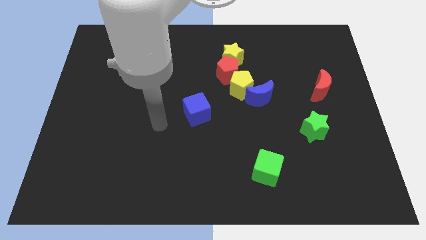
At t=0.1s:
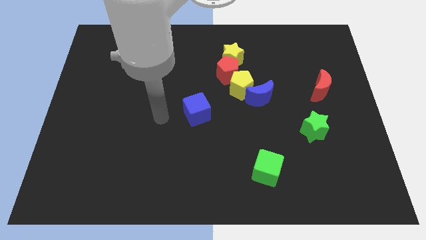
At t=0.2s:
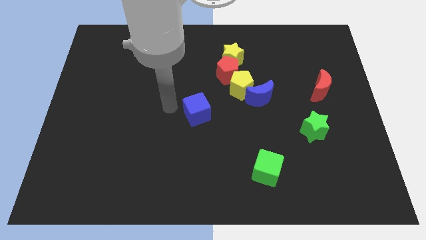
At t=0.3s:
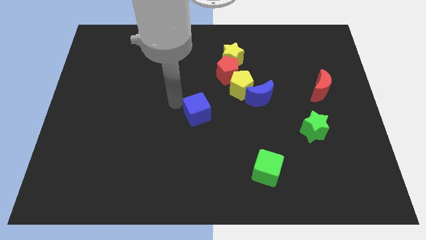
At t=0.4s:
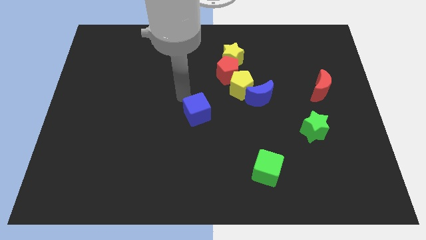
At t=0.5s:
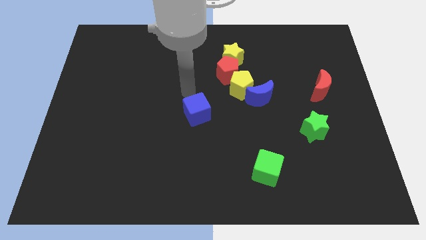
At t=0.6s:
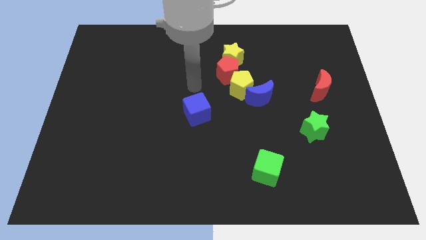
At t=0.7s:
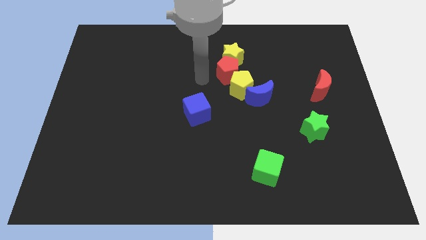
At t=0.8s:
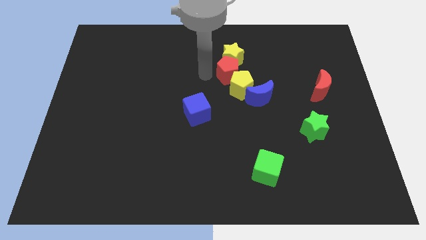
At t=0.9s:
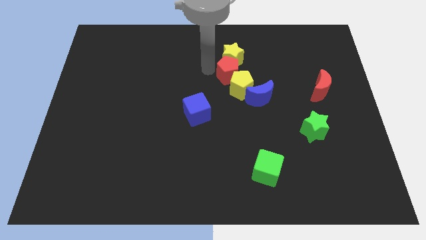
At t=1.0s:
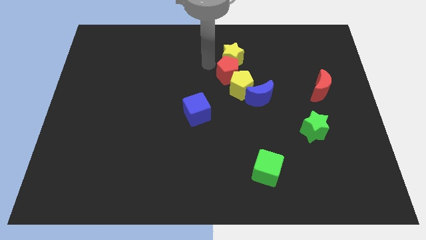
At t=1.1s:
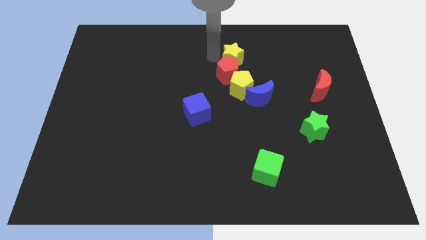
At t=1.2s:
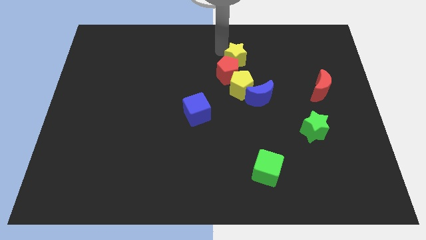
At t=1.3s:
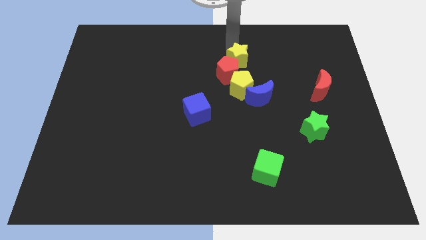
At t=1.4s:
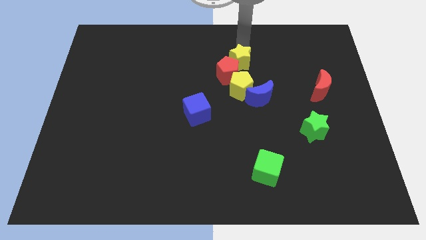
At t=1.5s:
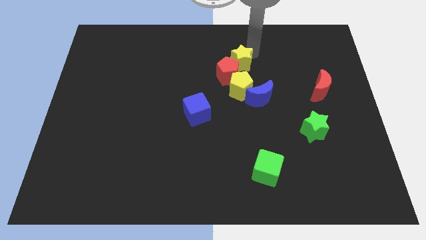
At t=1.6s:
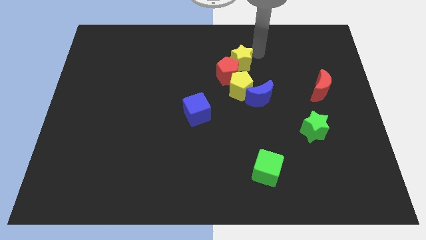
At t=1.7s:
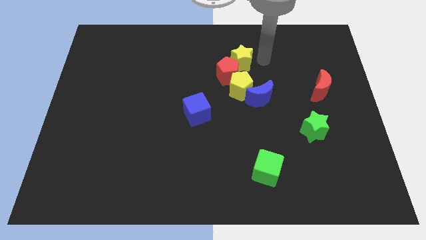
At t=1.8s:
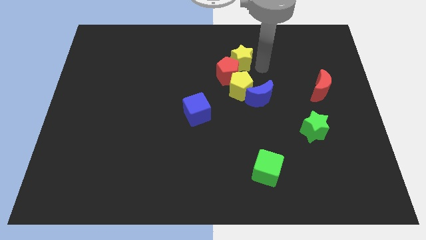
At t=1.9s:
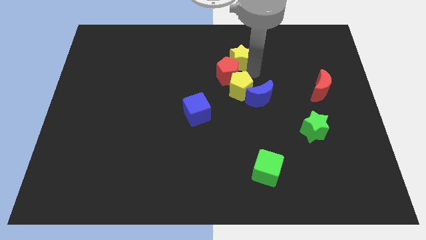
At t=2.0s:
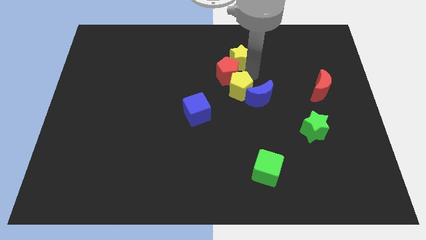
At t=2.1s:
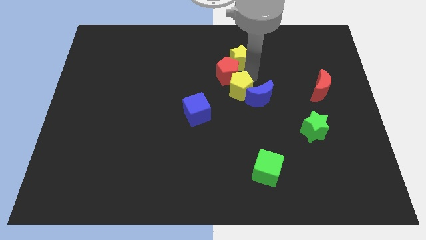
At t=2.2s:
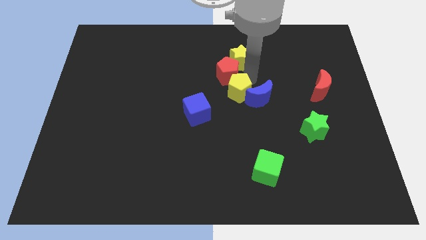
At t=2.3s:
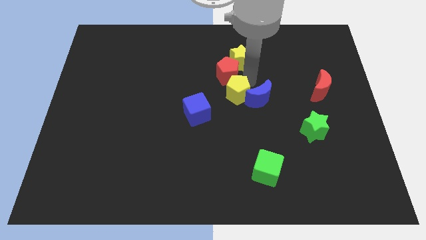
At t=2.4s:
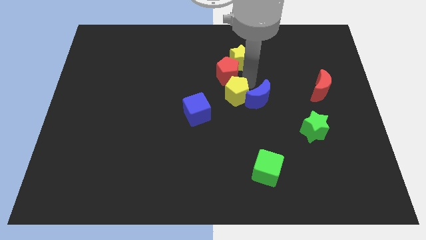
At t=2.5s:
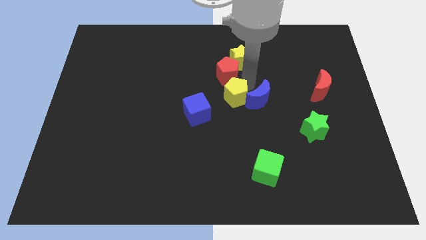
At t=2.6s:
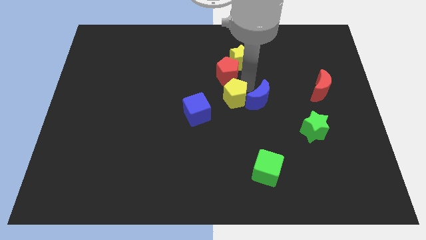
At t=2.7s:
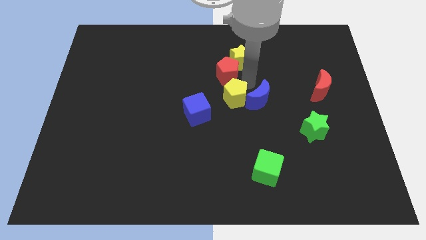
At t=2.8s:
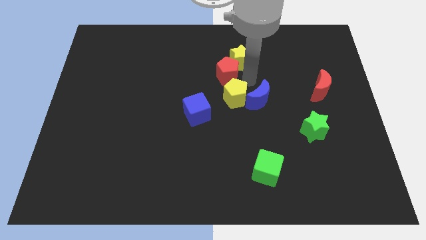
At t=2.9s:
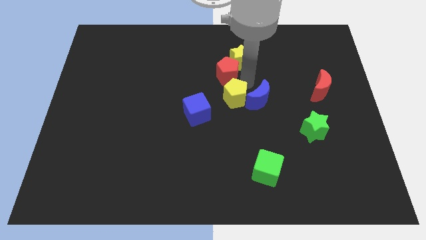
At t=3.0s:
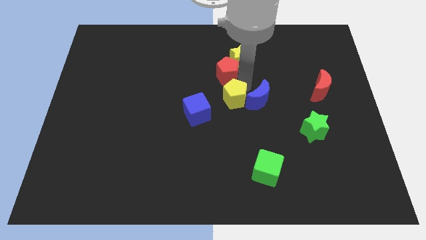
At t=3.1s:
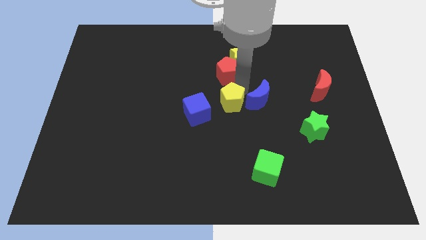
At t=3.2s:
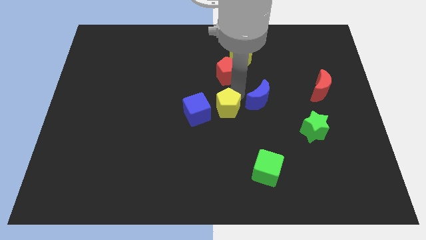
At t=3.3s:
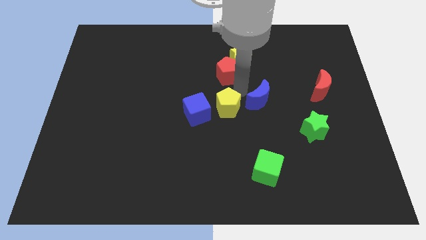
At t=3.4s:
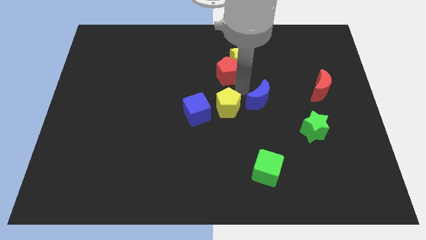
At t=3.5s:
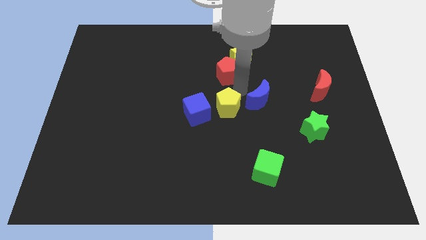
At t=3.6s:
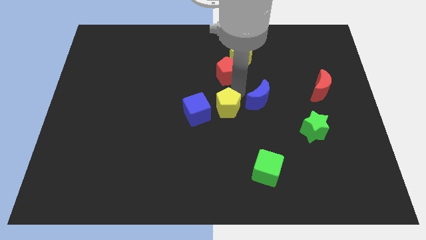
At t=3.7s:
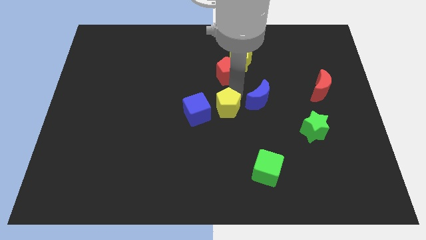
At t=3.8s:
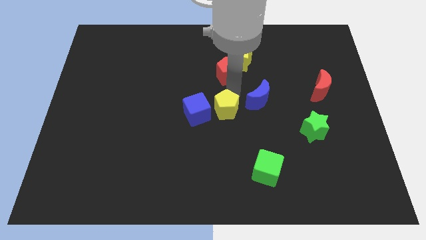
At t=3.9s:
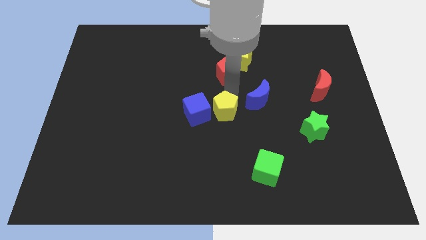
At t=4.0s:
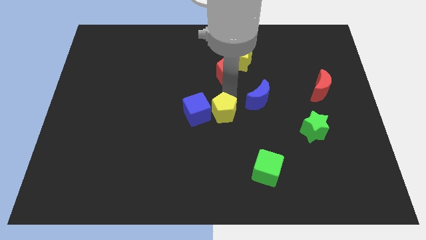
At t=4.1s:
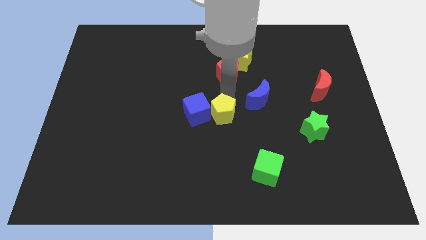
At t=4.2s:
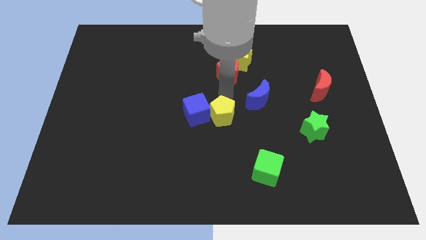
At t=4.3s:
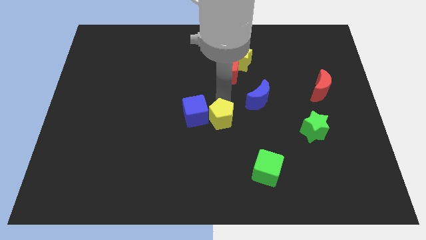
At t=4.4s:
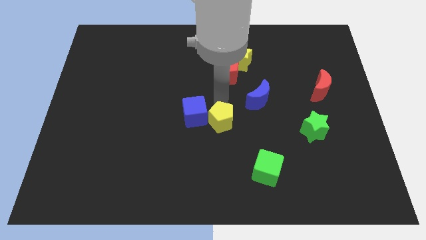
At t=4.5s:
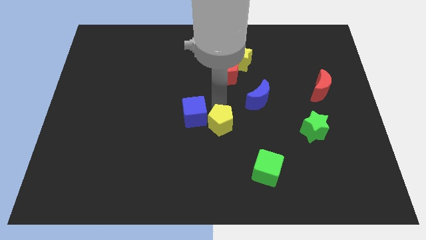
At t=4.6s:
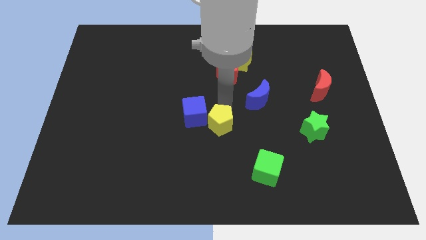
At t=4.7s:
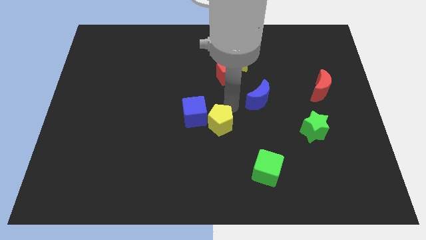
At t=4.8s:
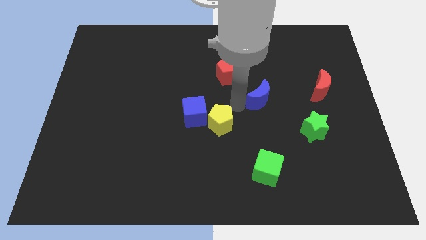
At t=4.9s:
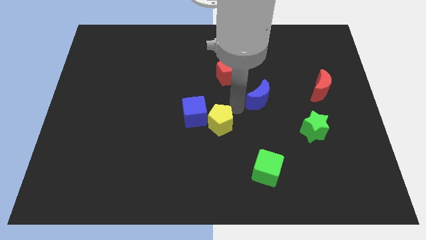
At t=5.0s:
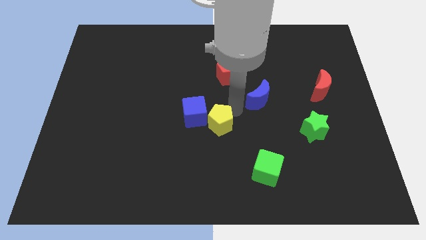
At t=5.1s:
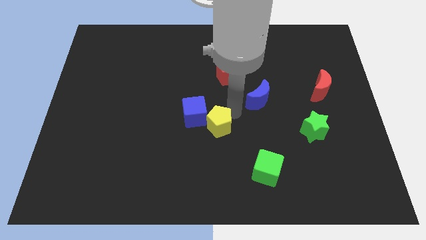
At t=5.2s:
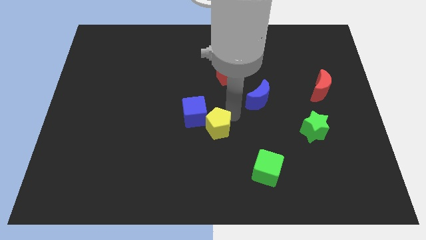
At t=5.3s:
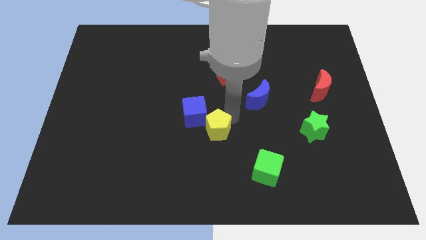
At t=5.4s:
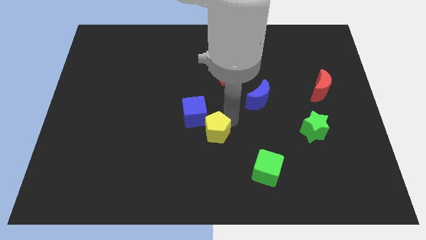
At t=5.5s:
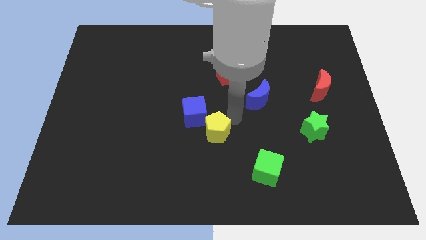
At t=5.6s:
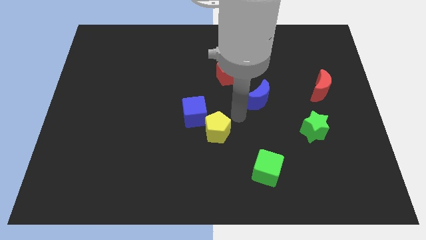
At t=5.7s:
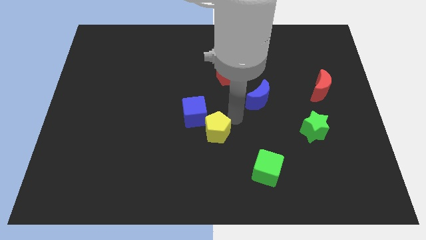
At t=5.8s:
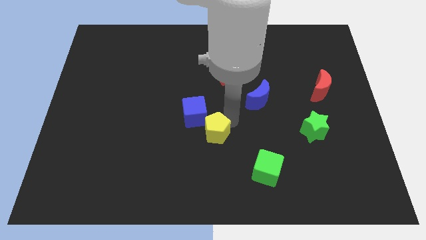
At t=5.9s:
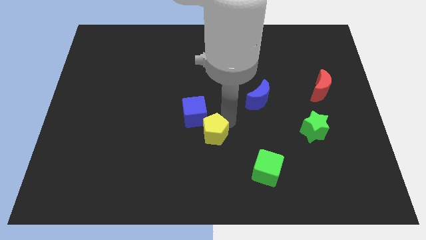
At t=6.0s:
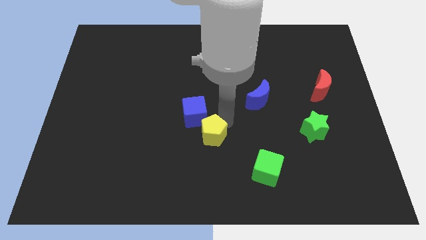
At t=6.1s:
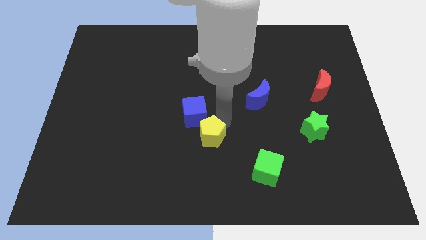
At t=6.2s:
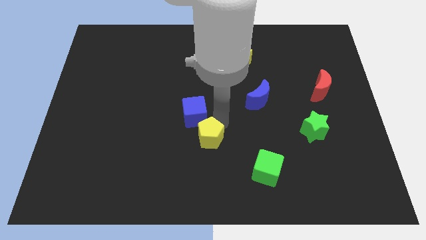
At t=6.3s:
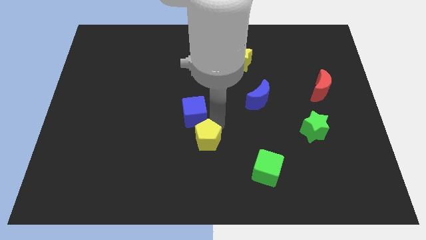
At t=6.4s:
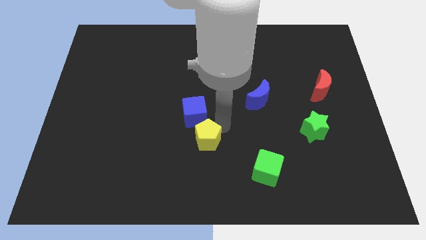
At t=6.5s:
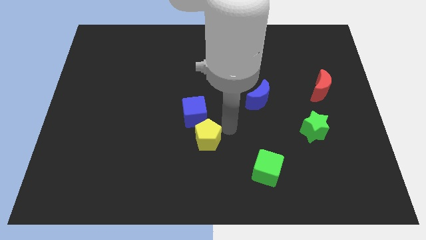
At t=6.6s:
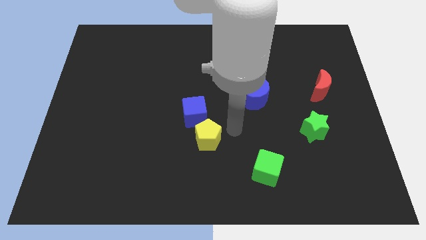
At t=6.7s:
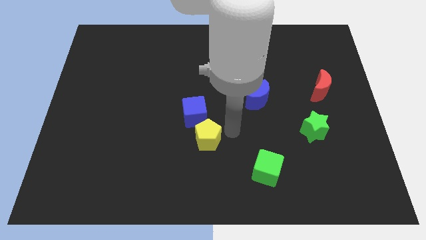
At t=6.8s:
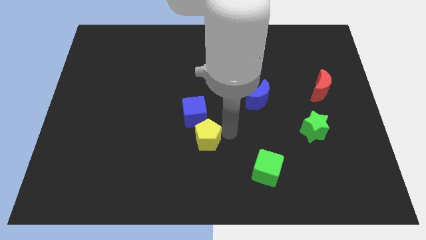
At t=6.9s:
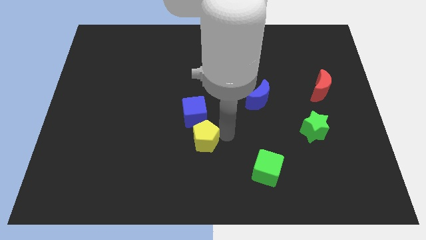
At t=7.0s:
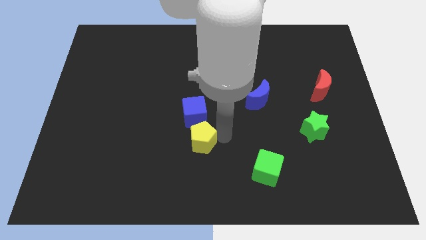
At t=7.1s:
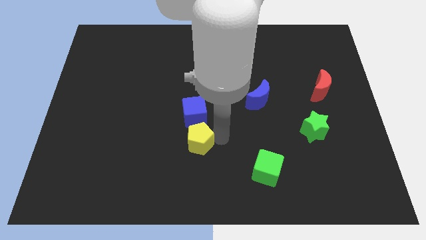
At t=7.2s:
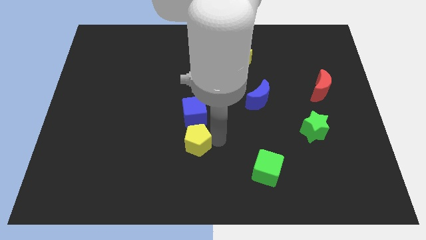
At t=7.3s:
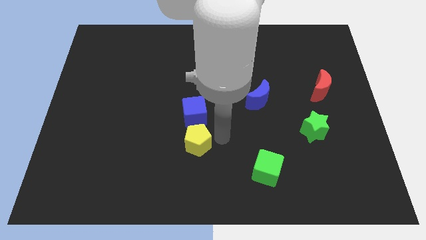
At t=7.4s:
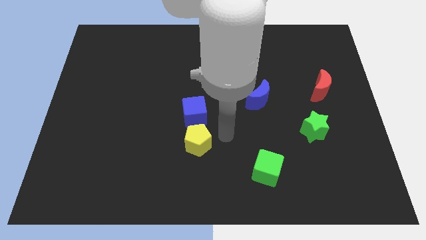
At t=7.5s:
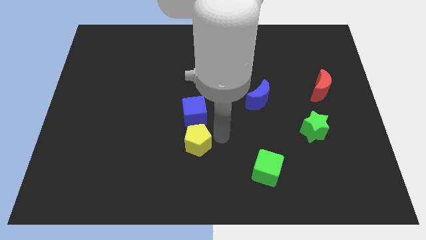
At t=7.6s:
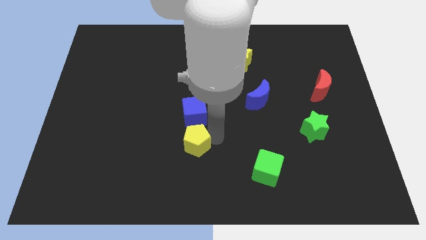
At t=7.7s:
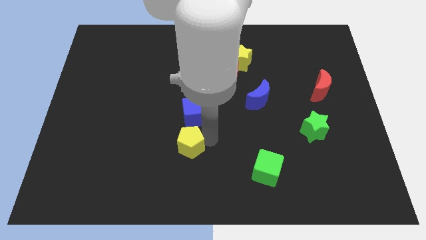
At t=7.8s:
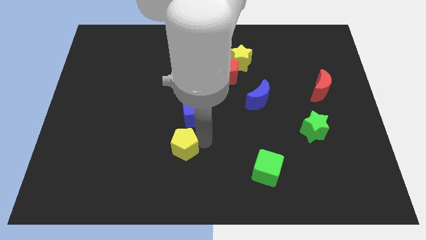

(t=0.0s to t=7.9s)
slide the yellow pentagon downwards and then left

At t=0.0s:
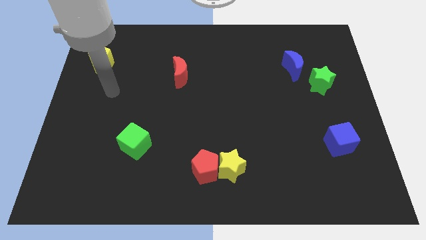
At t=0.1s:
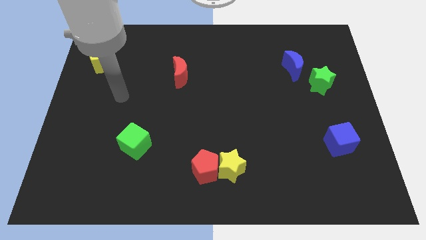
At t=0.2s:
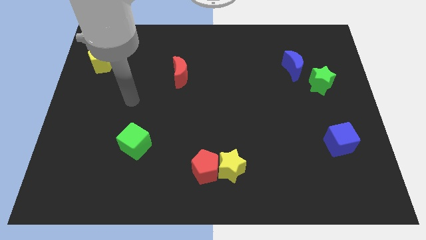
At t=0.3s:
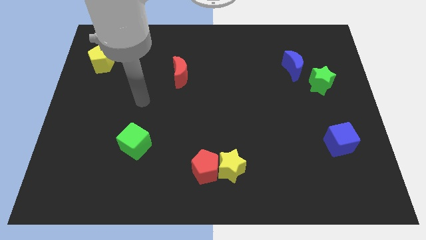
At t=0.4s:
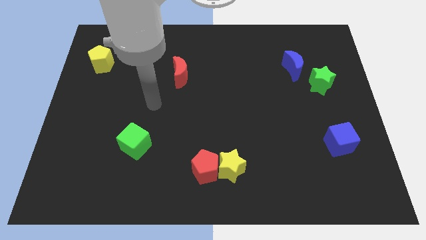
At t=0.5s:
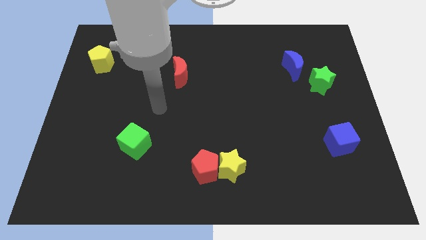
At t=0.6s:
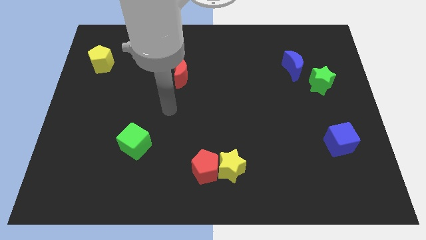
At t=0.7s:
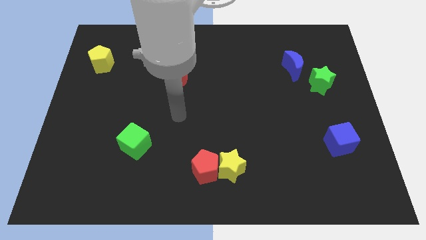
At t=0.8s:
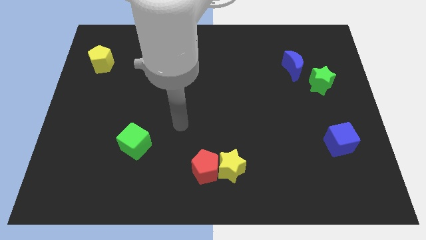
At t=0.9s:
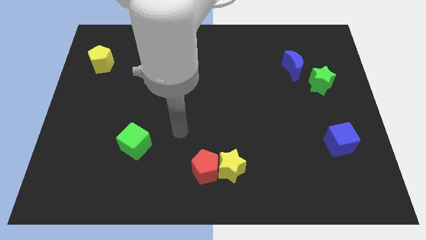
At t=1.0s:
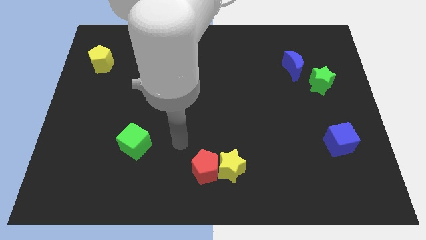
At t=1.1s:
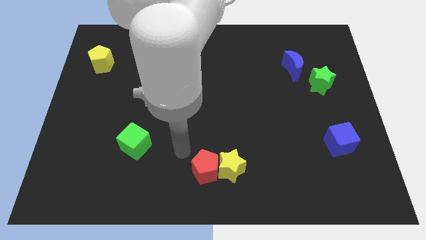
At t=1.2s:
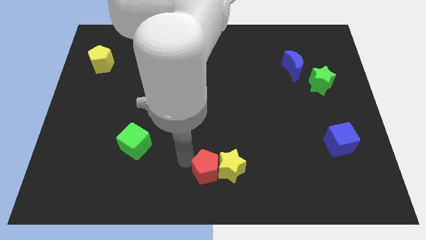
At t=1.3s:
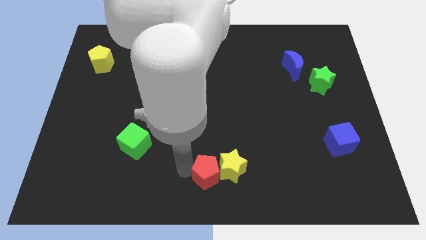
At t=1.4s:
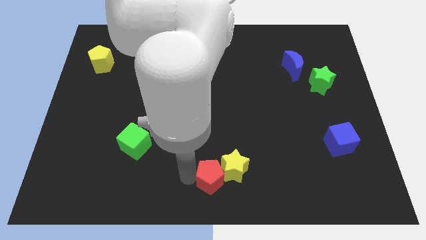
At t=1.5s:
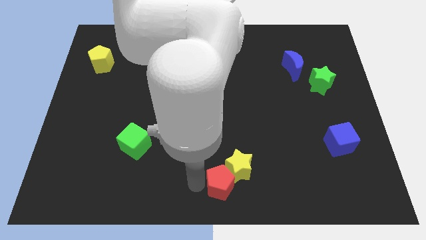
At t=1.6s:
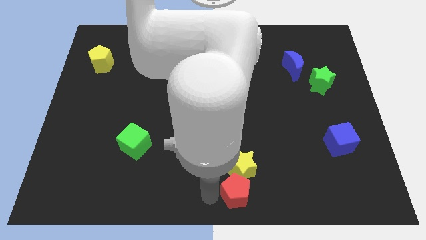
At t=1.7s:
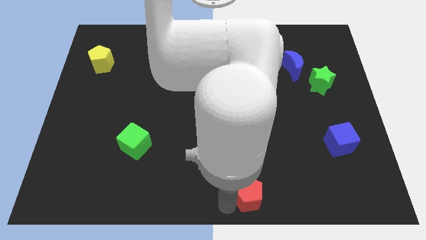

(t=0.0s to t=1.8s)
push the red pentagon a bit to the right
